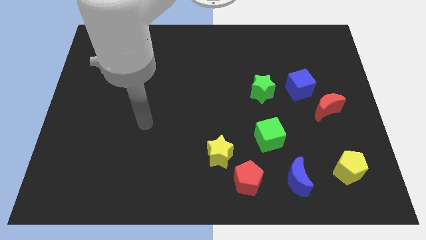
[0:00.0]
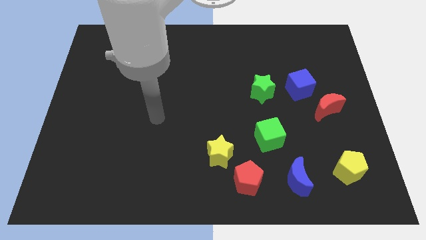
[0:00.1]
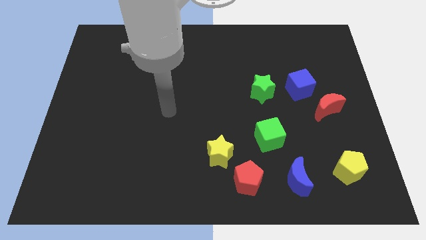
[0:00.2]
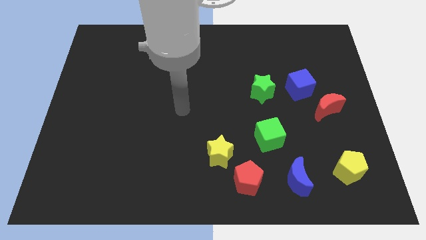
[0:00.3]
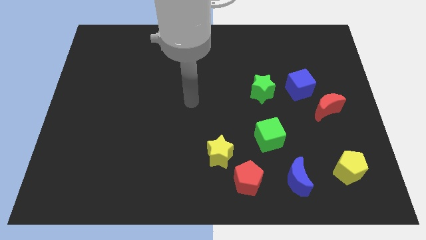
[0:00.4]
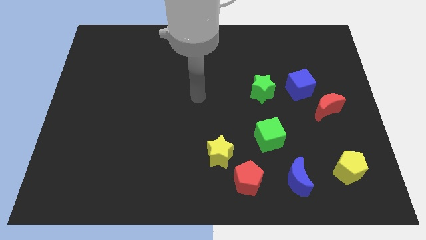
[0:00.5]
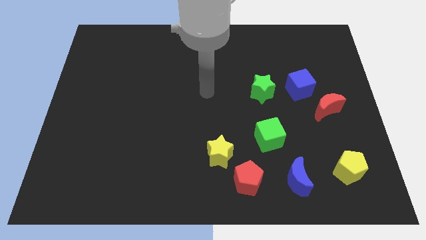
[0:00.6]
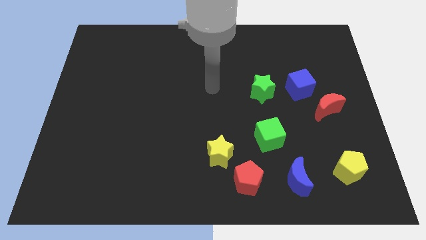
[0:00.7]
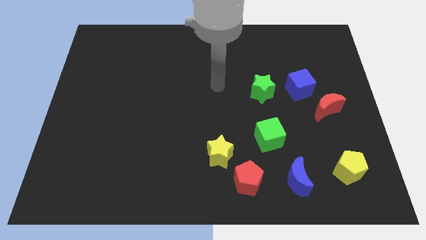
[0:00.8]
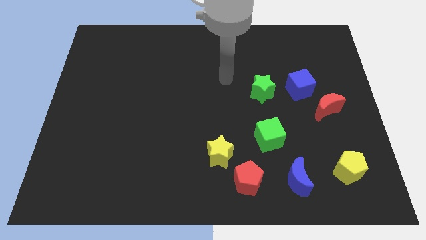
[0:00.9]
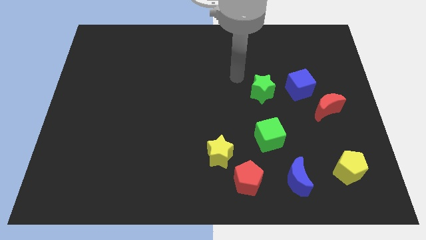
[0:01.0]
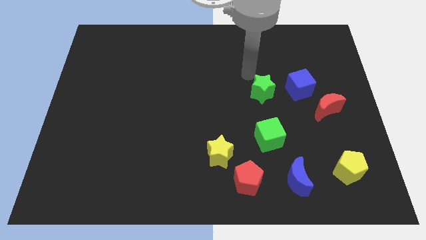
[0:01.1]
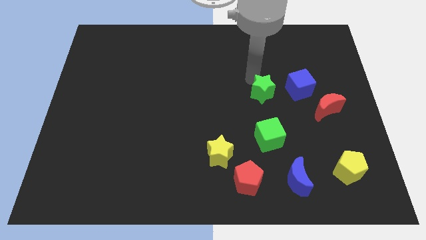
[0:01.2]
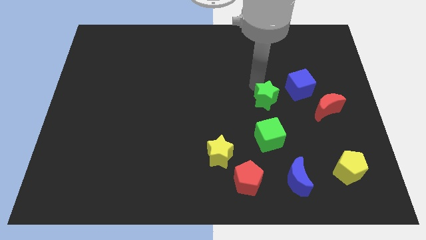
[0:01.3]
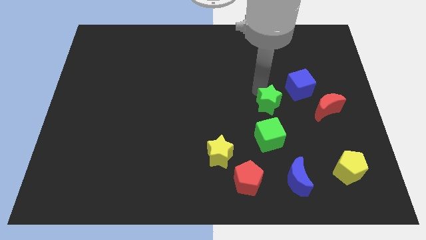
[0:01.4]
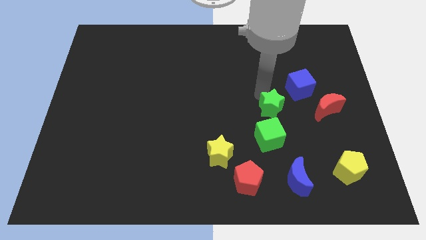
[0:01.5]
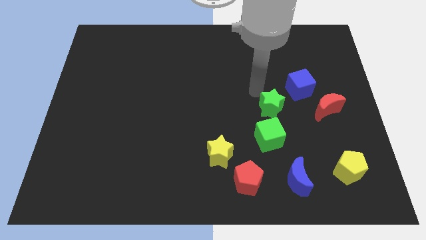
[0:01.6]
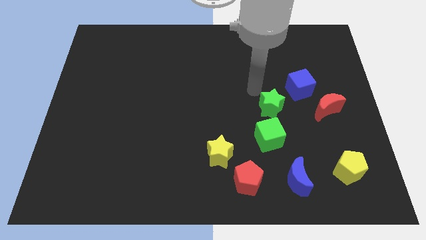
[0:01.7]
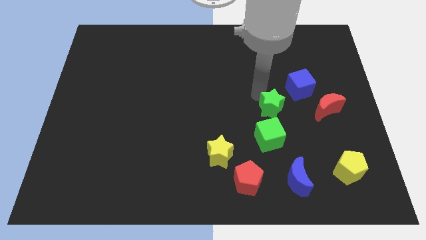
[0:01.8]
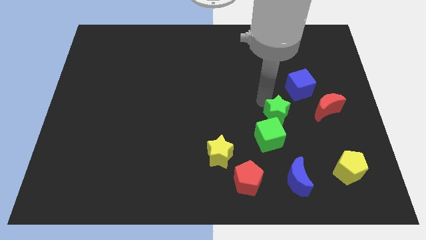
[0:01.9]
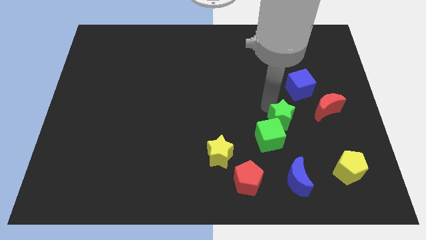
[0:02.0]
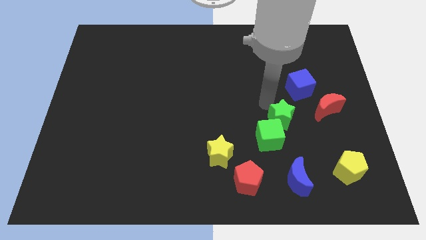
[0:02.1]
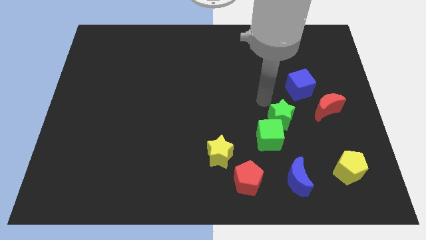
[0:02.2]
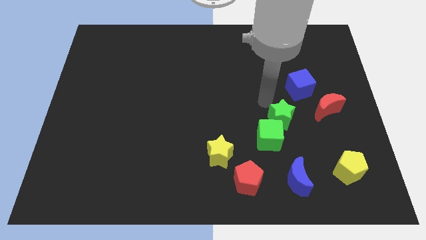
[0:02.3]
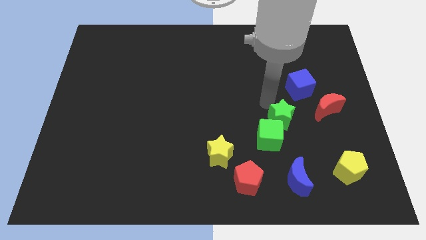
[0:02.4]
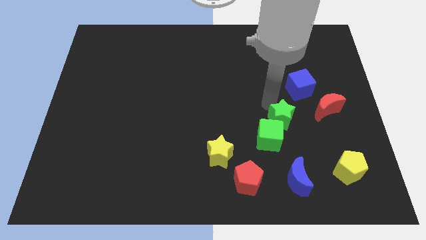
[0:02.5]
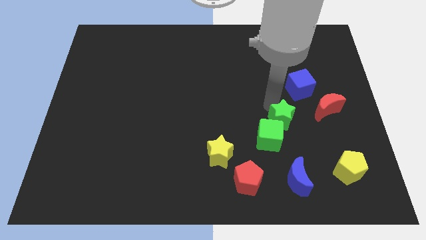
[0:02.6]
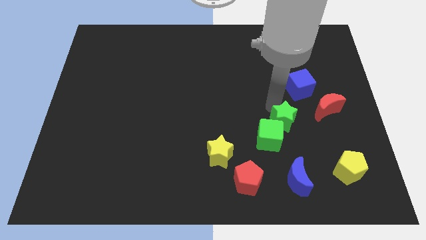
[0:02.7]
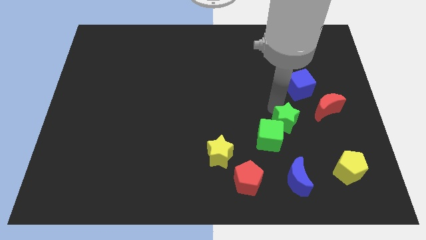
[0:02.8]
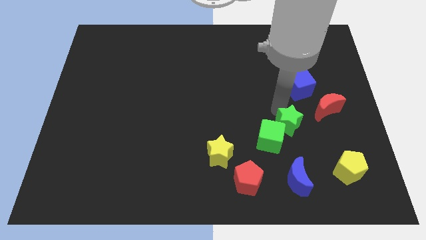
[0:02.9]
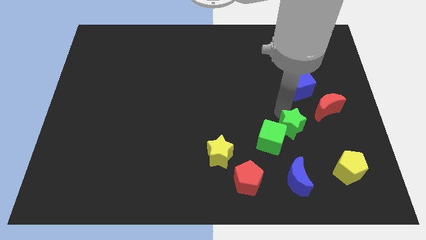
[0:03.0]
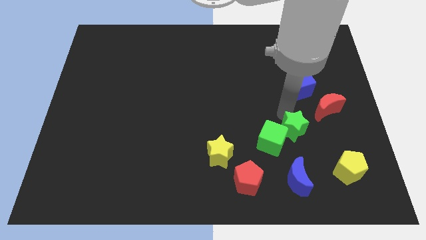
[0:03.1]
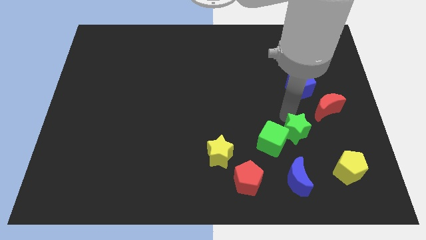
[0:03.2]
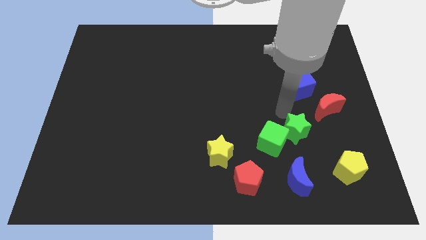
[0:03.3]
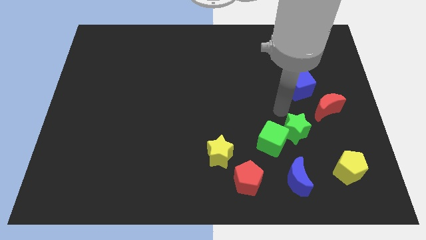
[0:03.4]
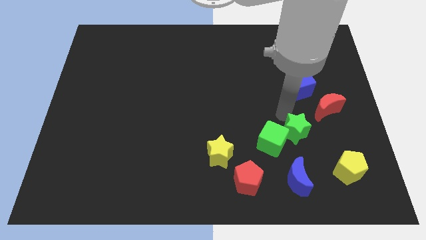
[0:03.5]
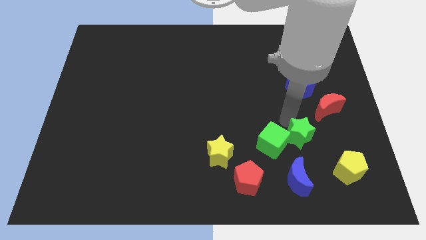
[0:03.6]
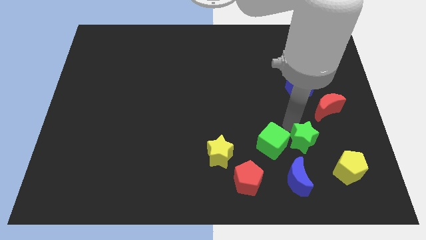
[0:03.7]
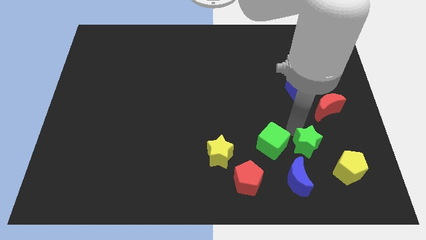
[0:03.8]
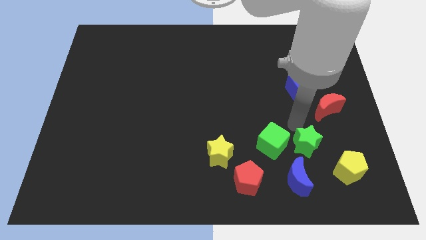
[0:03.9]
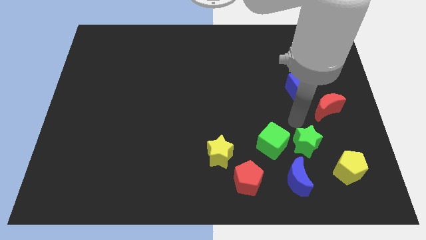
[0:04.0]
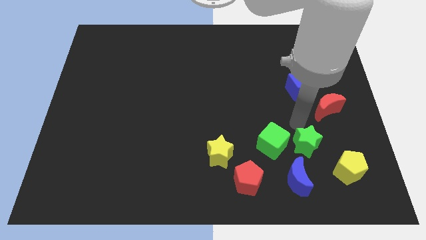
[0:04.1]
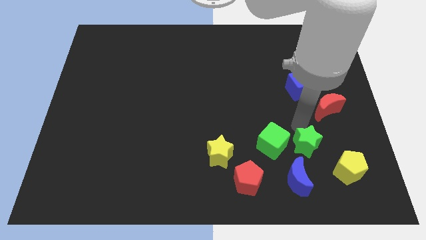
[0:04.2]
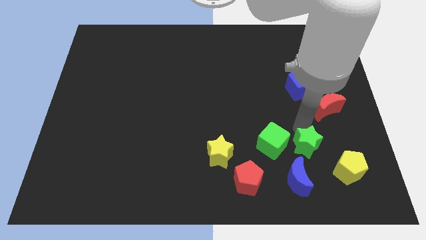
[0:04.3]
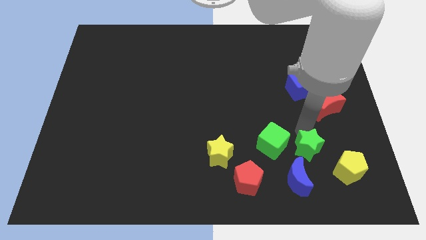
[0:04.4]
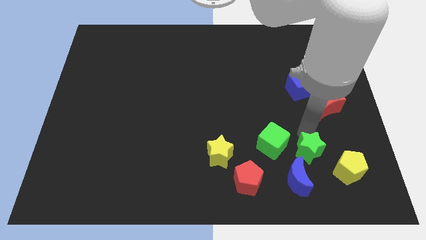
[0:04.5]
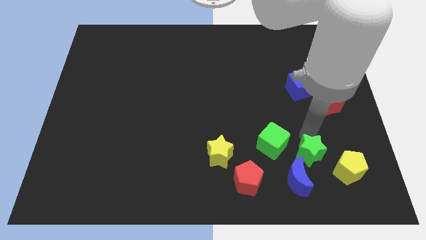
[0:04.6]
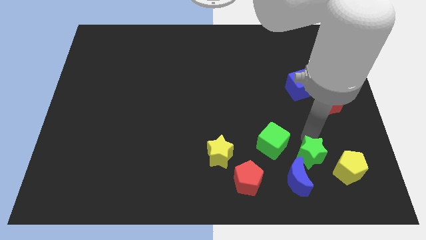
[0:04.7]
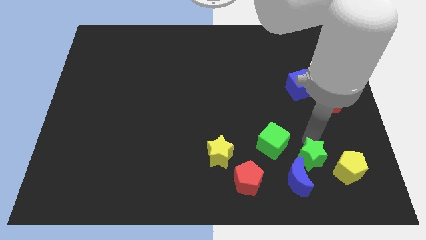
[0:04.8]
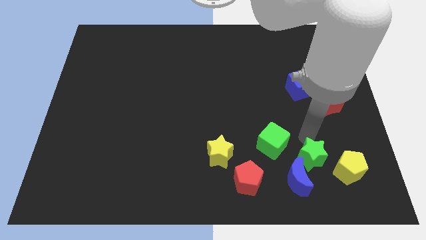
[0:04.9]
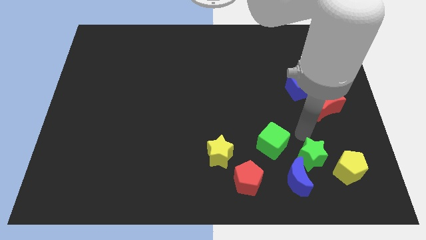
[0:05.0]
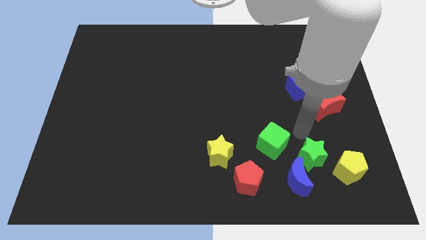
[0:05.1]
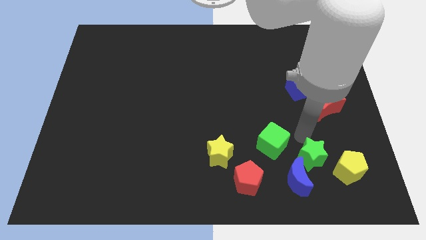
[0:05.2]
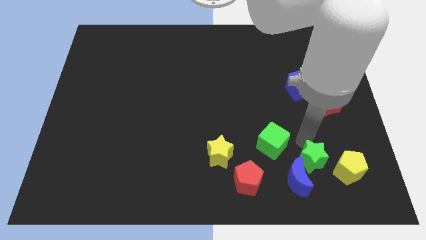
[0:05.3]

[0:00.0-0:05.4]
push the green star to the right of the blue moon

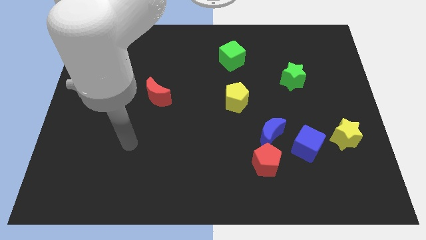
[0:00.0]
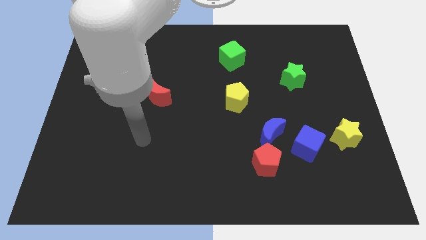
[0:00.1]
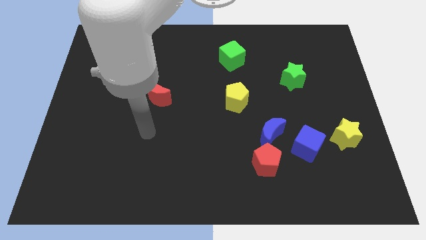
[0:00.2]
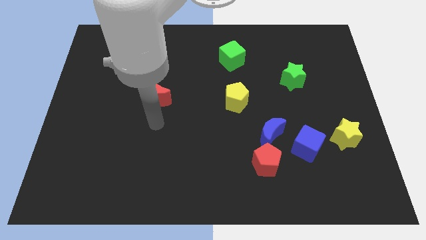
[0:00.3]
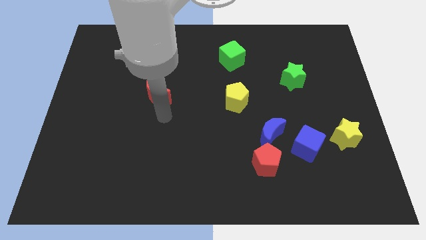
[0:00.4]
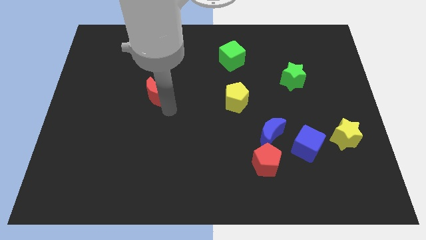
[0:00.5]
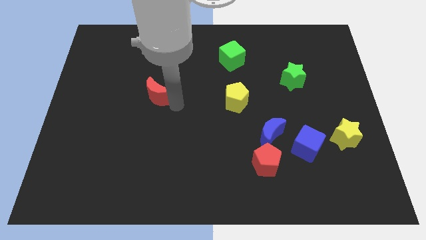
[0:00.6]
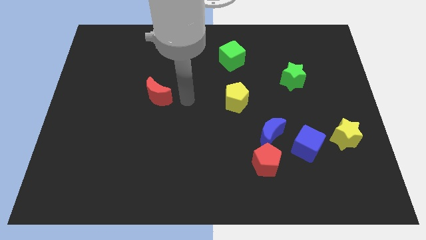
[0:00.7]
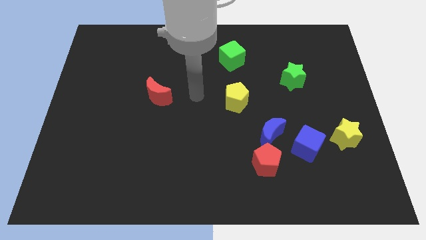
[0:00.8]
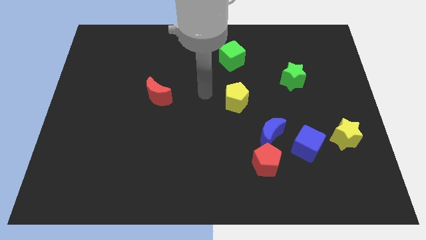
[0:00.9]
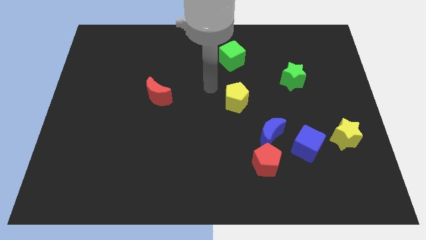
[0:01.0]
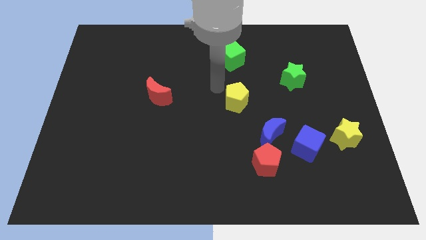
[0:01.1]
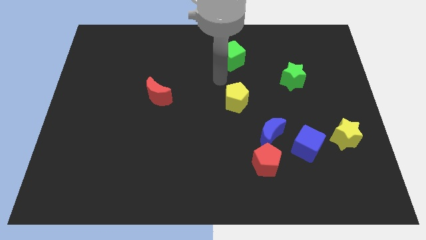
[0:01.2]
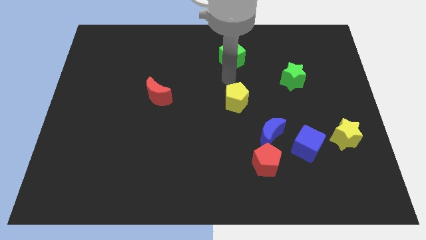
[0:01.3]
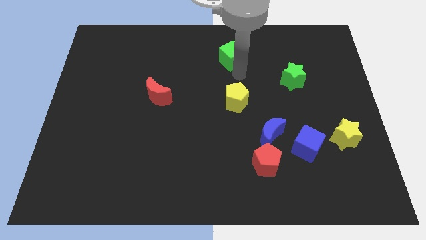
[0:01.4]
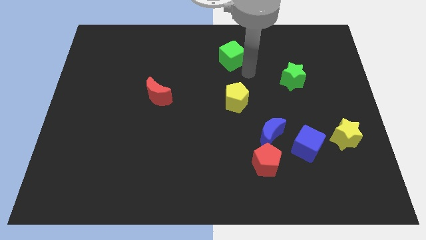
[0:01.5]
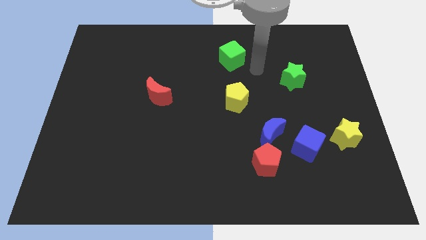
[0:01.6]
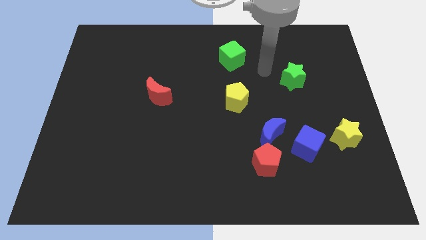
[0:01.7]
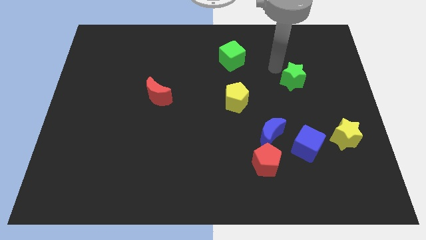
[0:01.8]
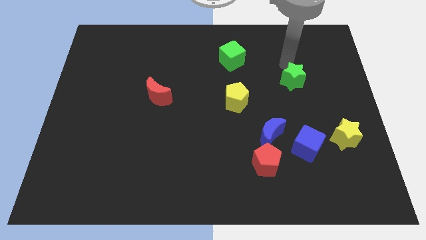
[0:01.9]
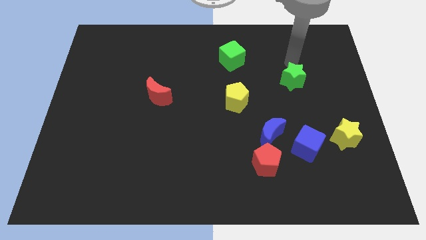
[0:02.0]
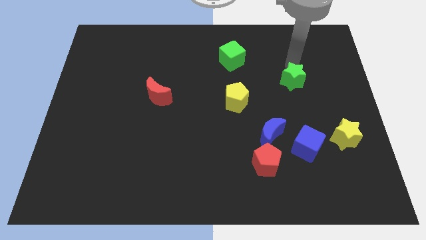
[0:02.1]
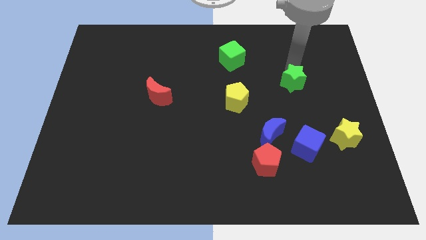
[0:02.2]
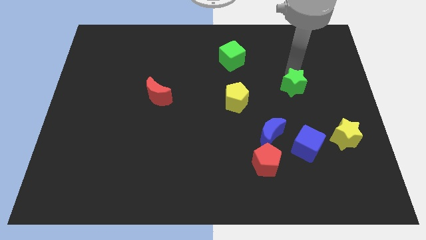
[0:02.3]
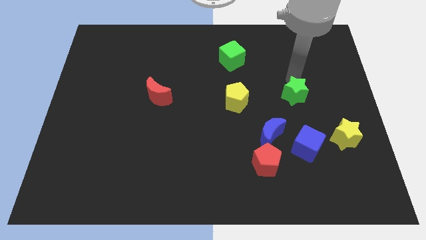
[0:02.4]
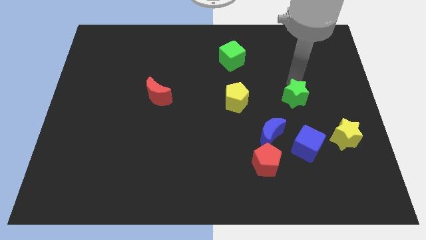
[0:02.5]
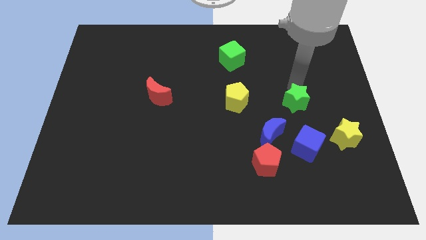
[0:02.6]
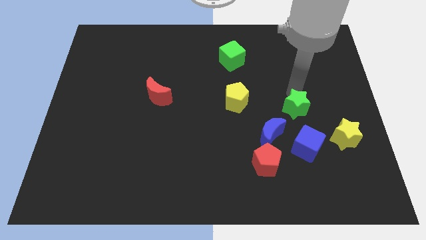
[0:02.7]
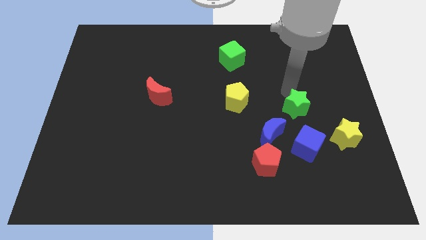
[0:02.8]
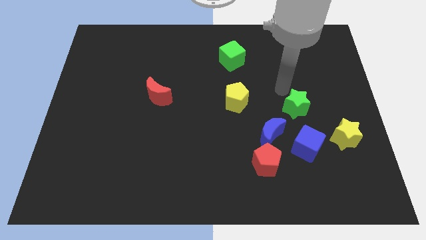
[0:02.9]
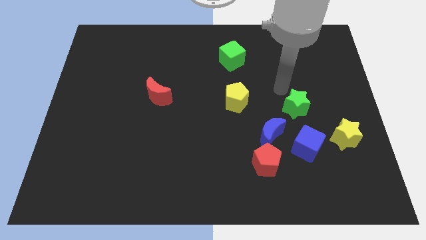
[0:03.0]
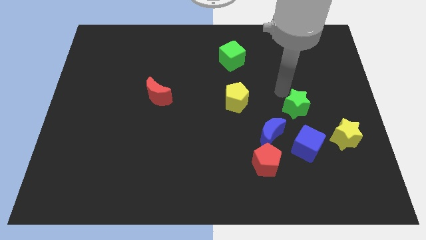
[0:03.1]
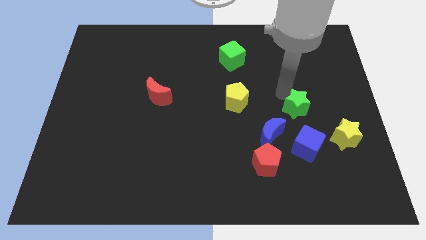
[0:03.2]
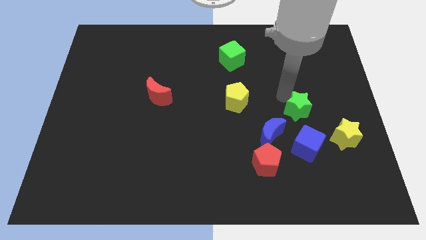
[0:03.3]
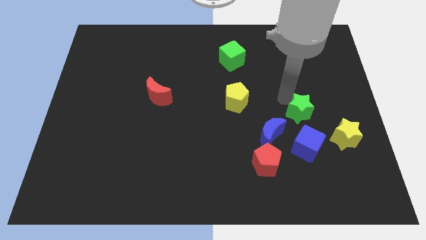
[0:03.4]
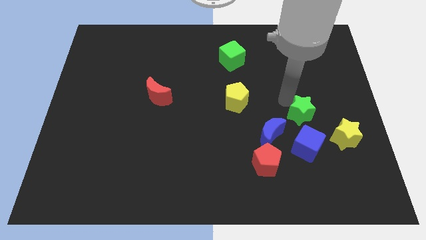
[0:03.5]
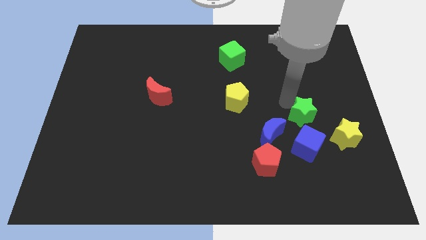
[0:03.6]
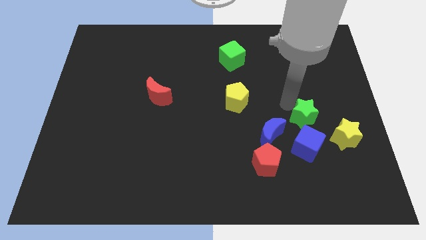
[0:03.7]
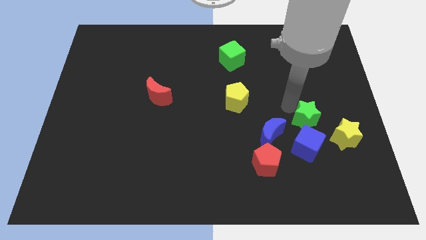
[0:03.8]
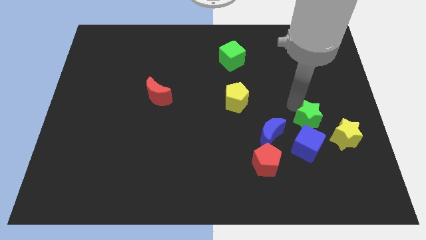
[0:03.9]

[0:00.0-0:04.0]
slide the green star to the left of the yellow star
